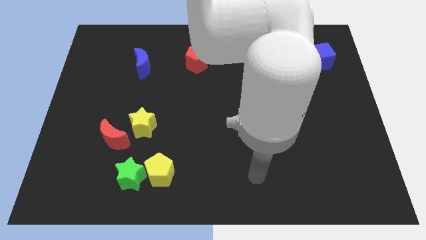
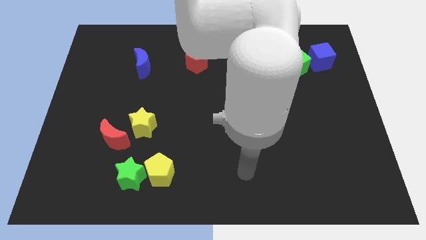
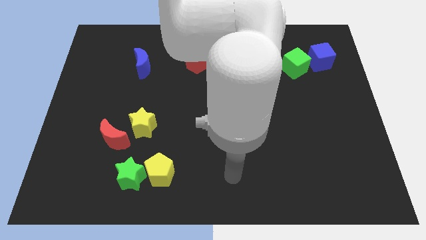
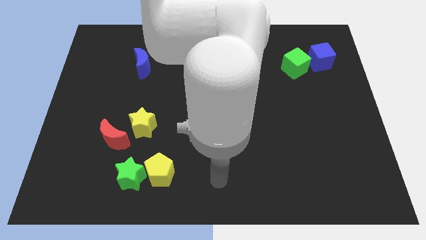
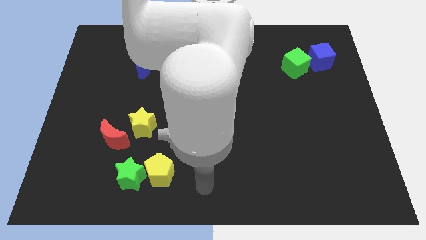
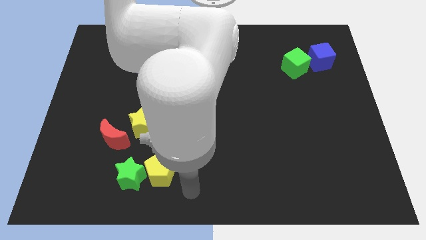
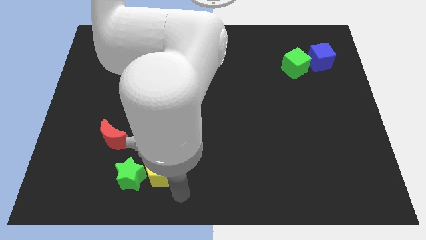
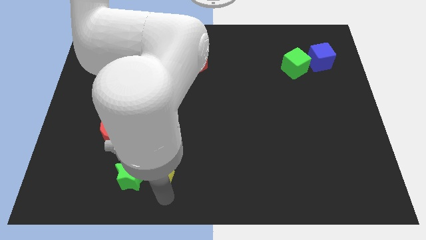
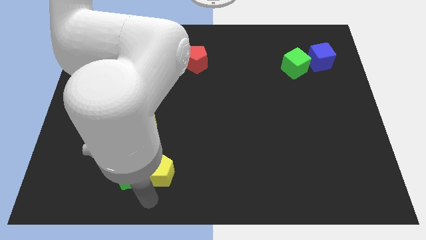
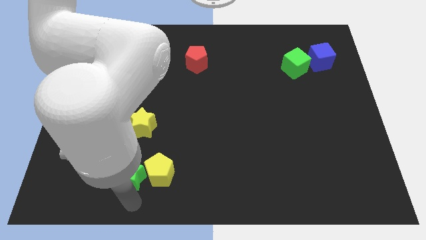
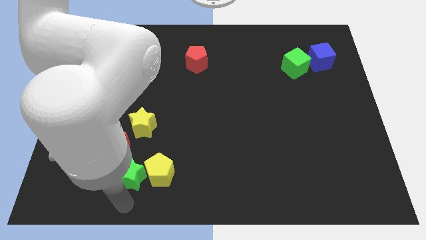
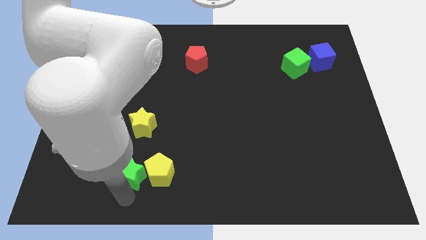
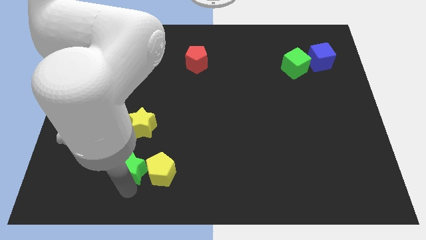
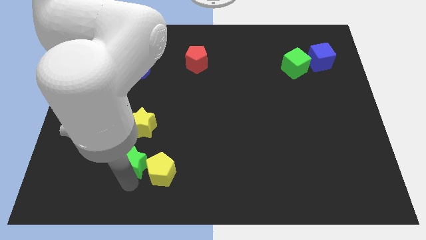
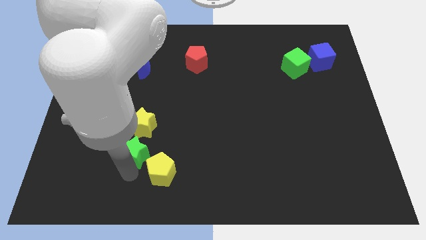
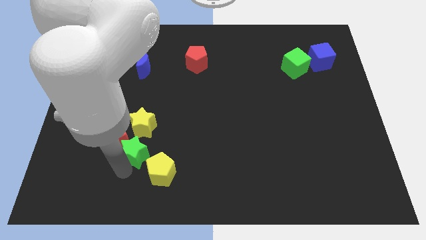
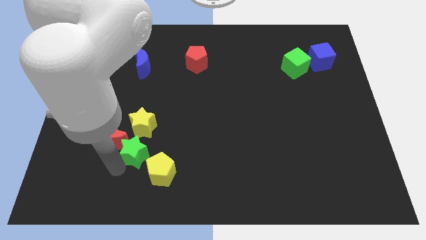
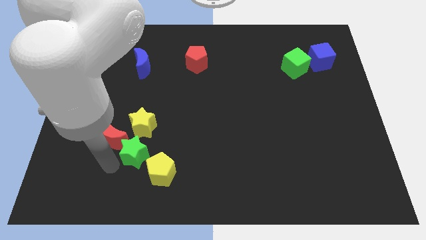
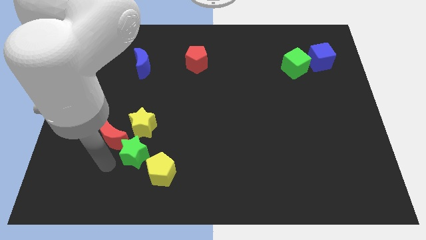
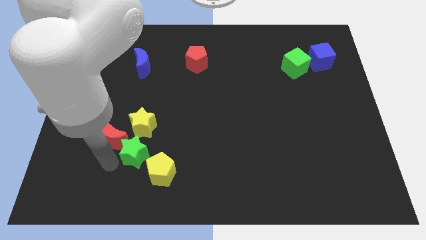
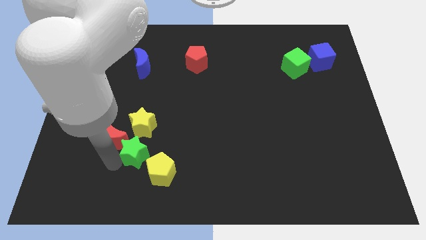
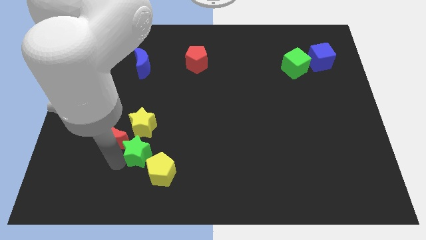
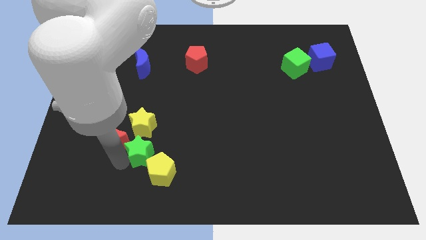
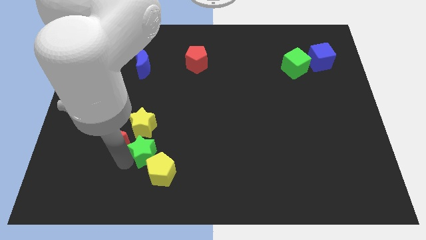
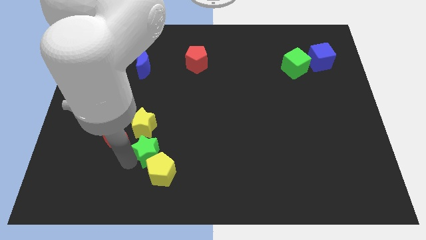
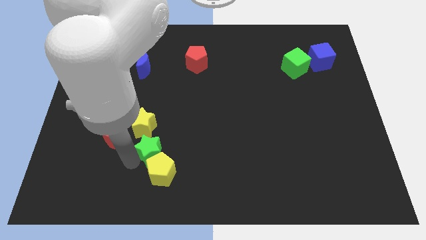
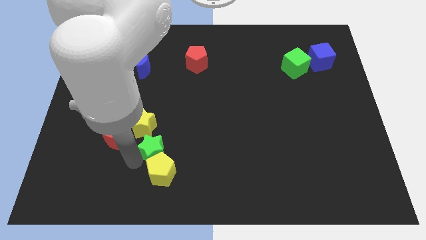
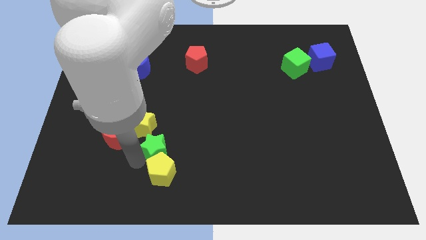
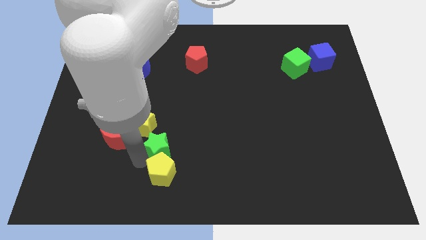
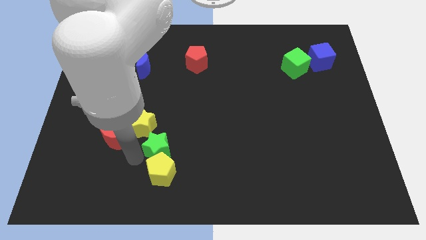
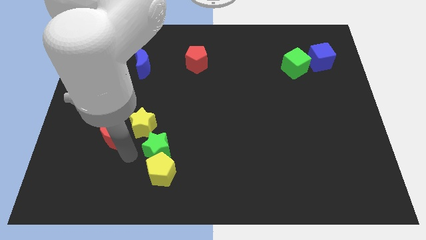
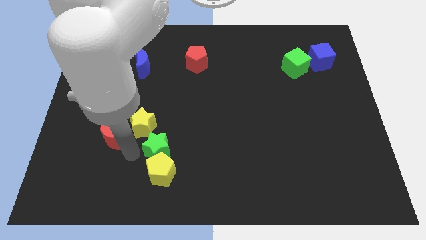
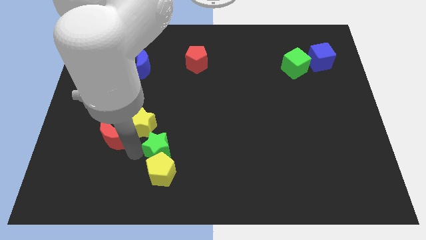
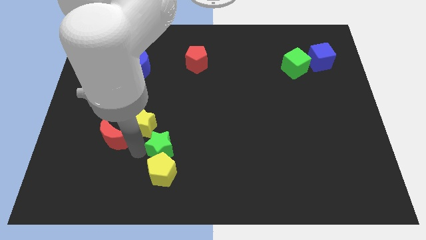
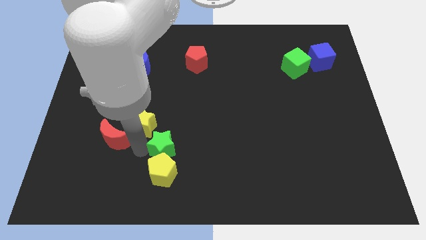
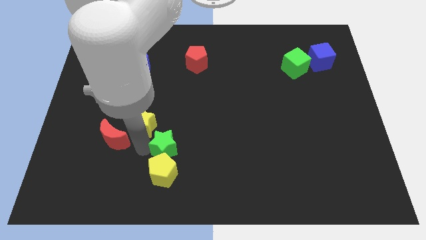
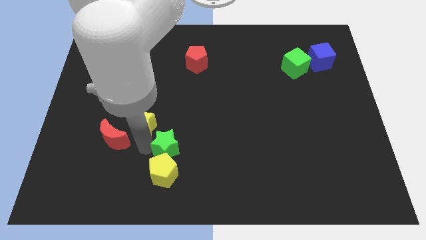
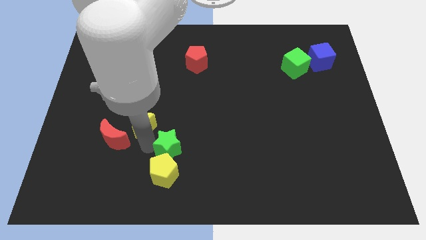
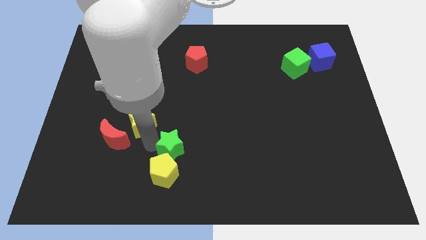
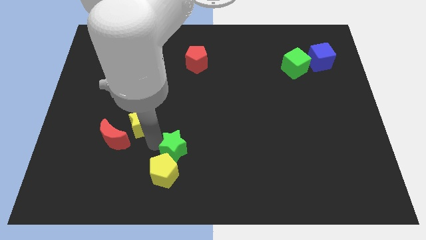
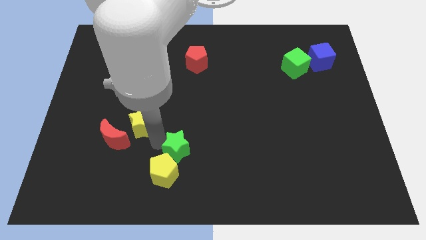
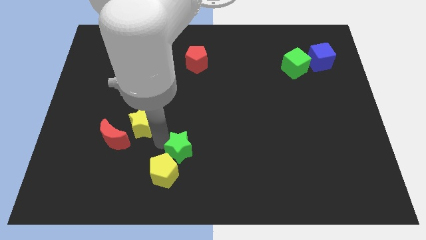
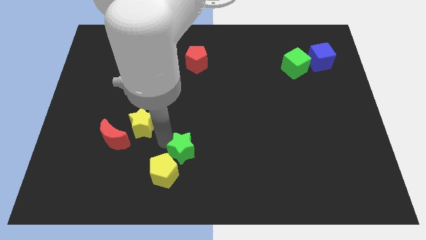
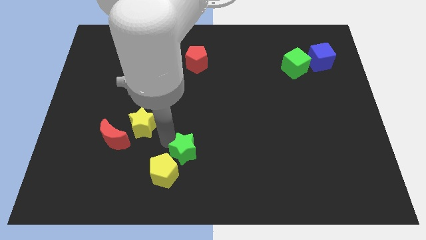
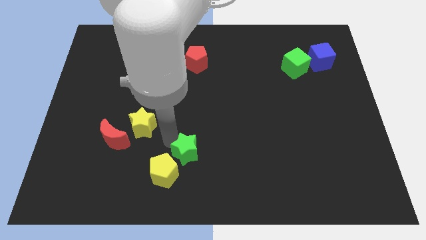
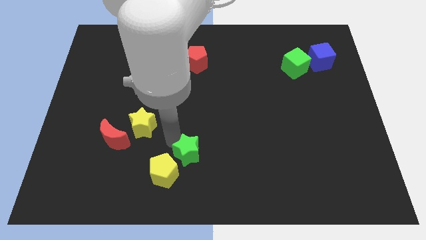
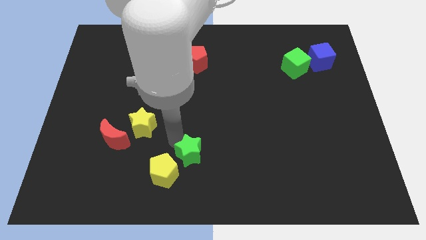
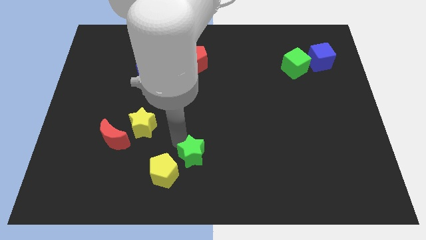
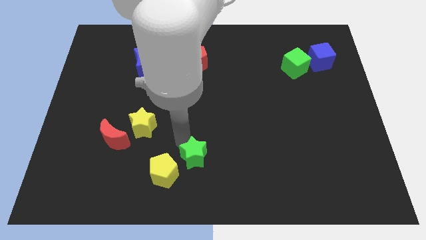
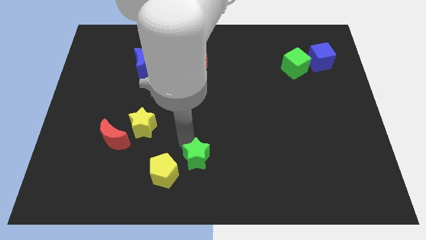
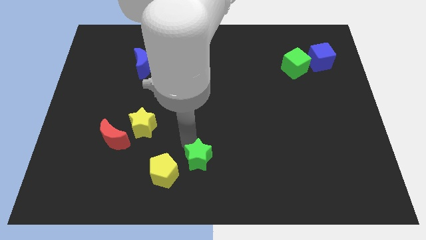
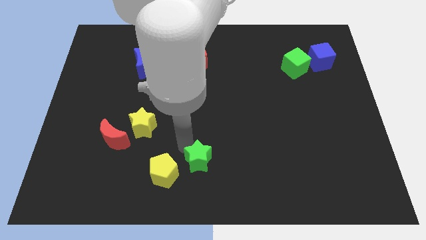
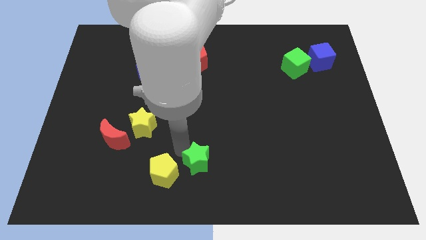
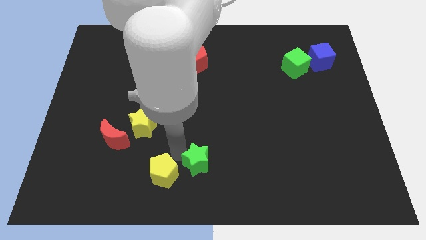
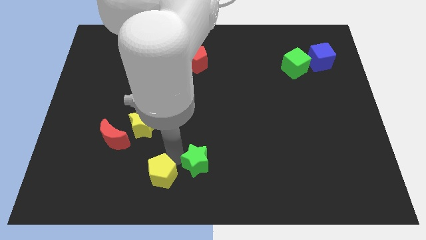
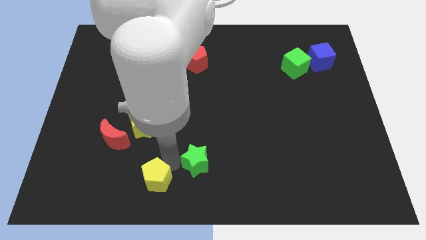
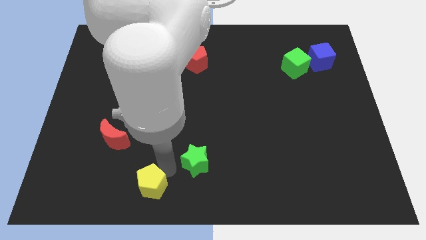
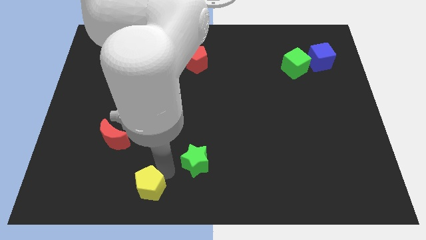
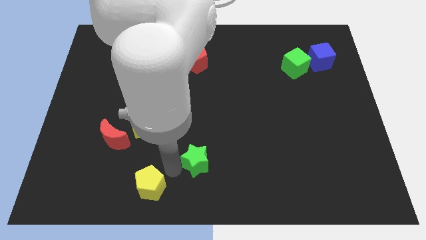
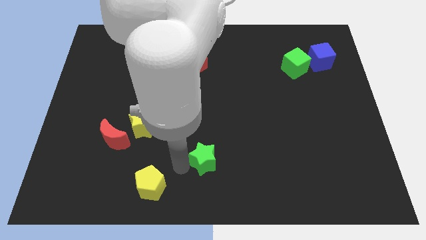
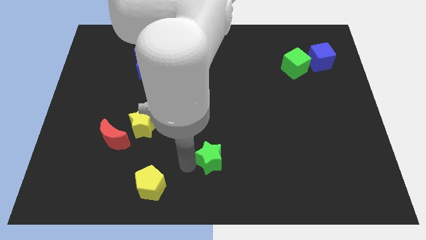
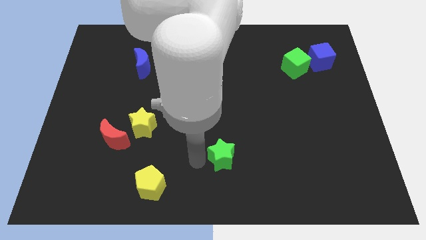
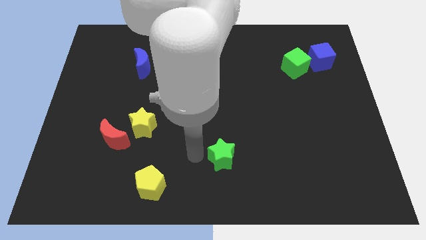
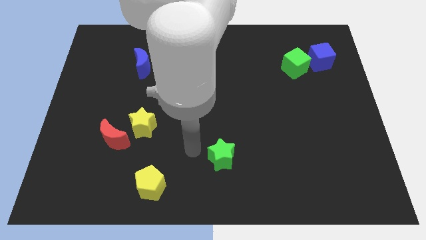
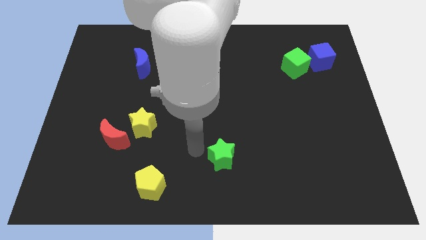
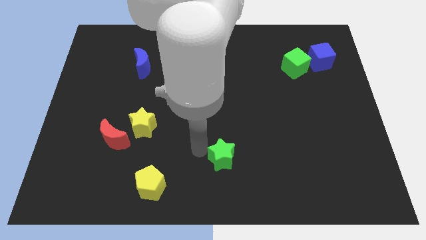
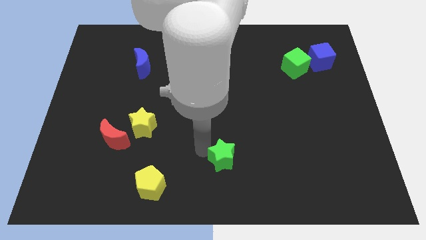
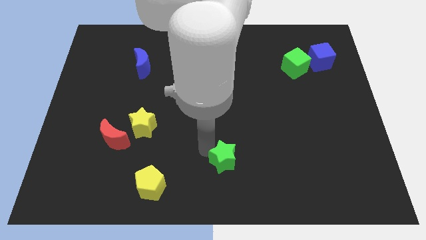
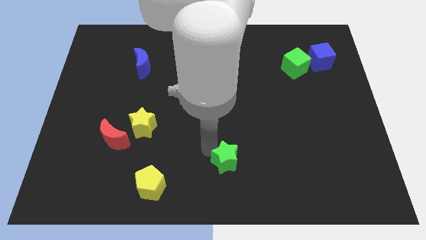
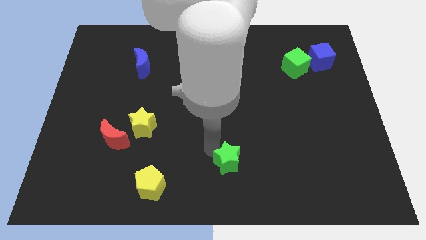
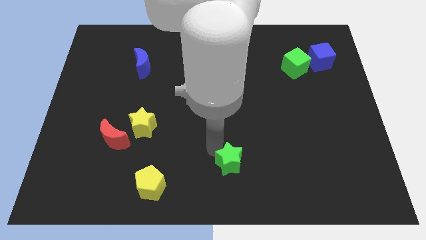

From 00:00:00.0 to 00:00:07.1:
push the green star right

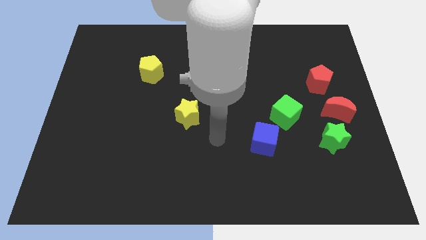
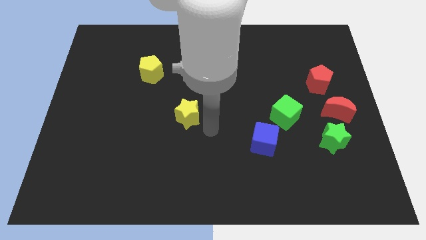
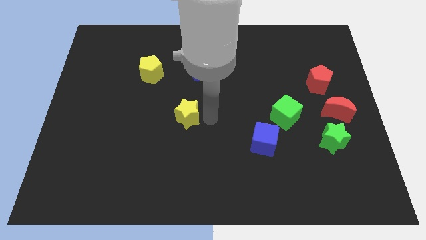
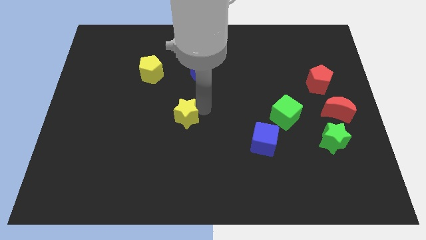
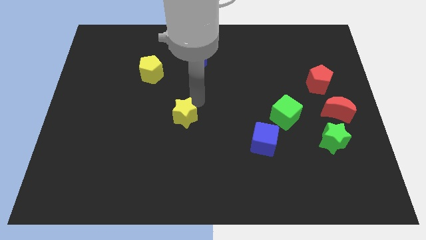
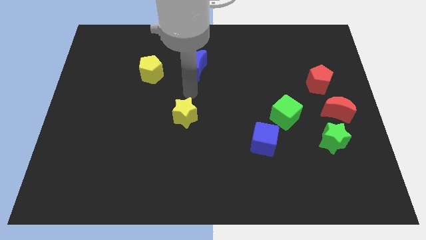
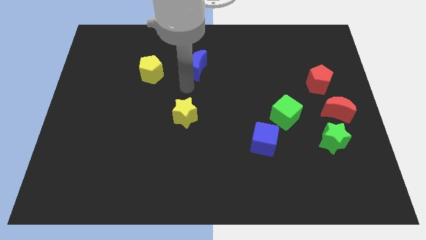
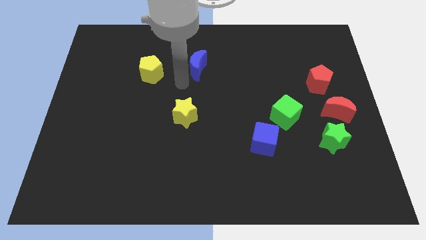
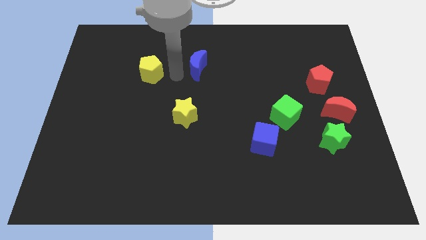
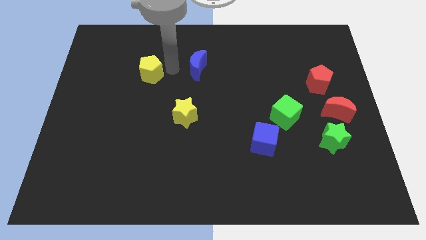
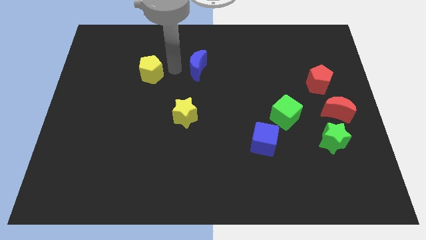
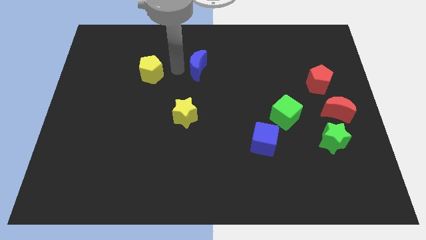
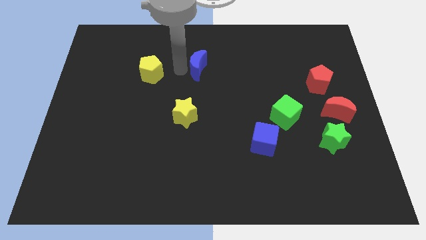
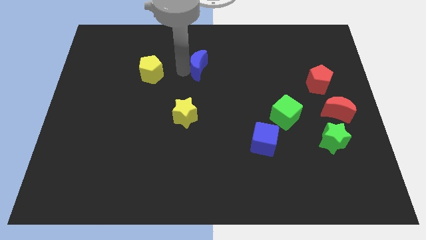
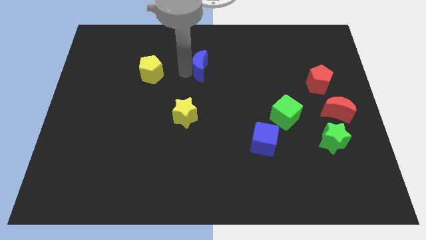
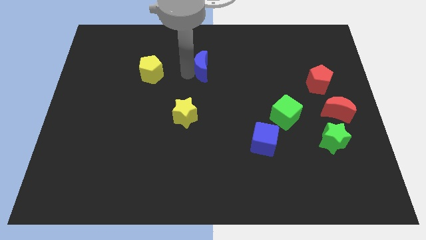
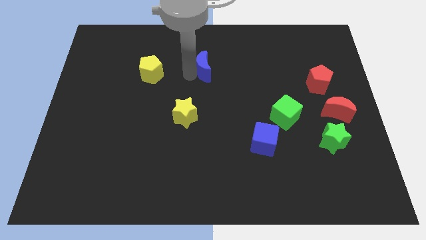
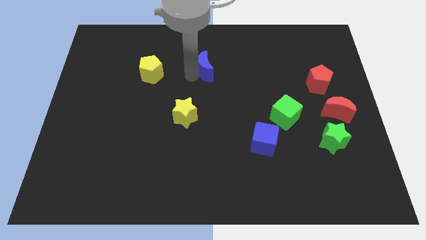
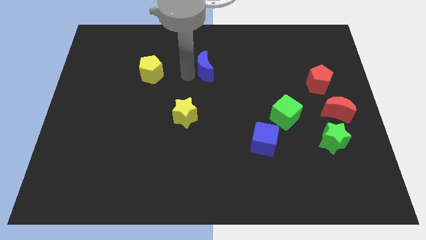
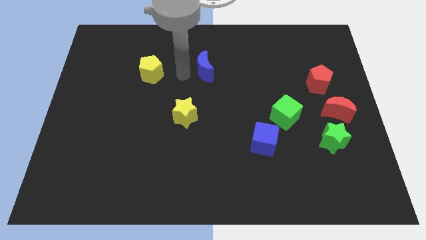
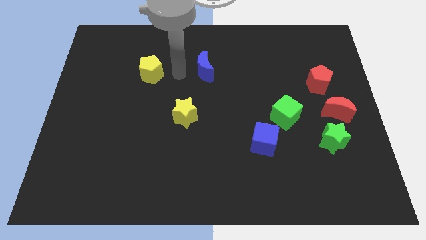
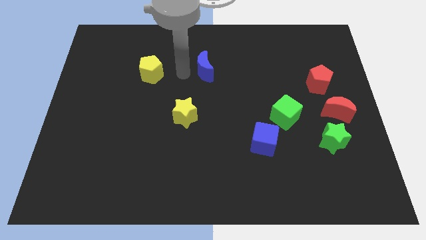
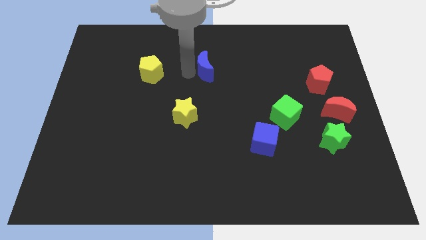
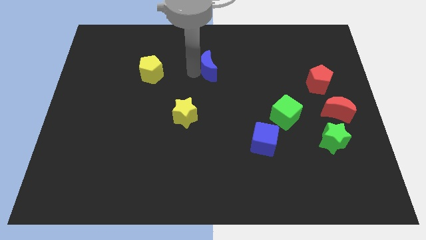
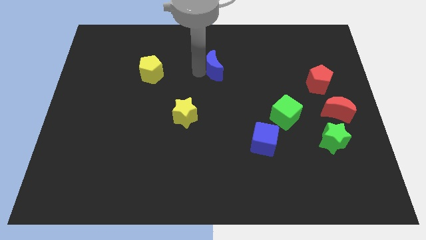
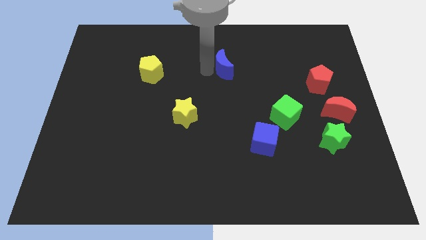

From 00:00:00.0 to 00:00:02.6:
slightly push the blue moon right
